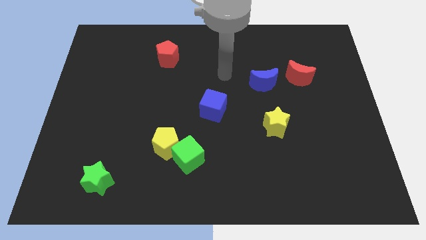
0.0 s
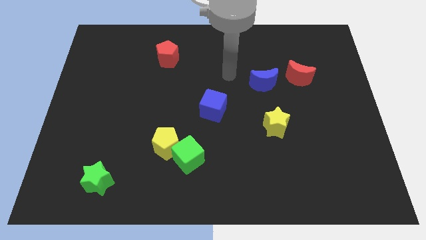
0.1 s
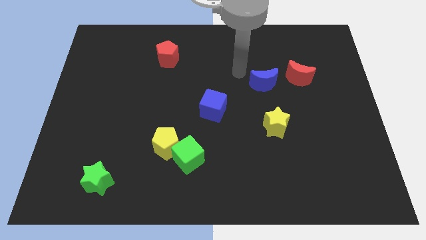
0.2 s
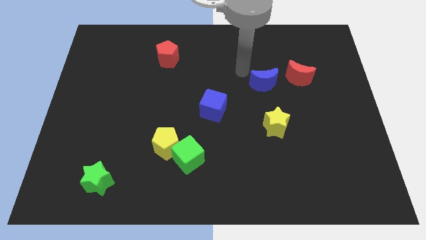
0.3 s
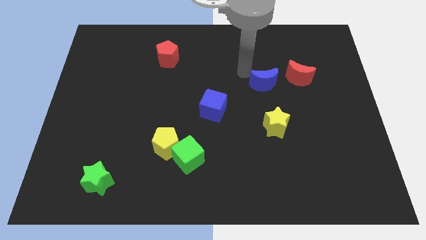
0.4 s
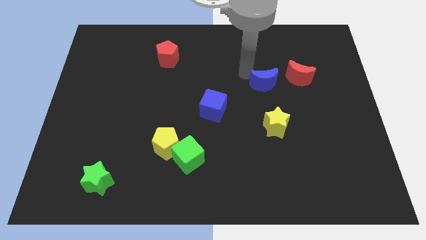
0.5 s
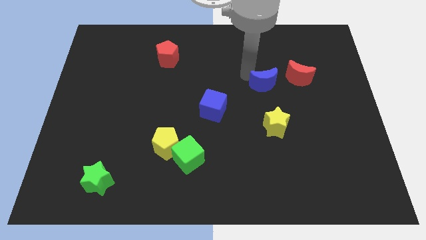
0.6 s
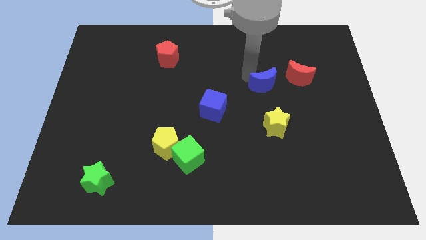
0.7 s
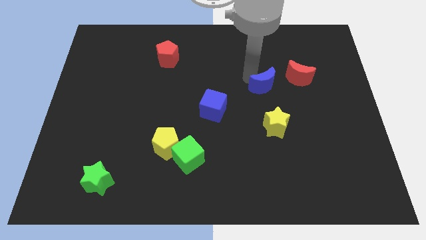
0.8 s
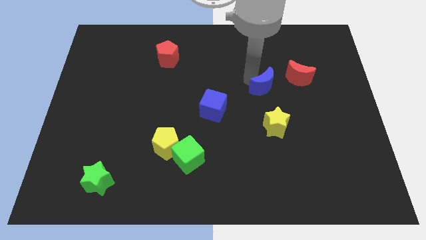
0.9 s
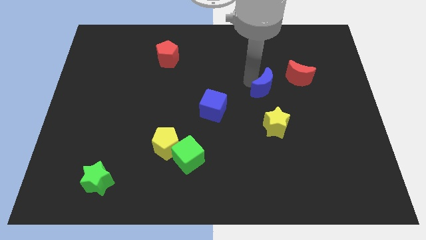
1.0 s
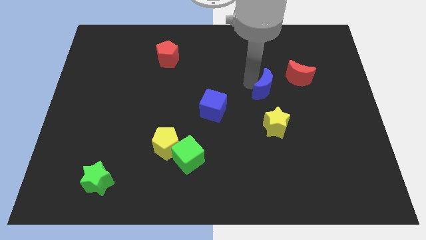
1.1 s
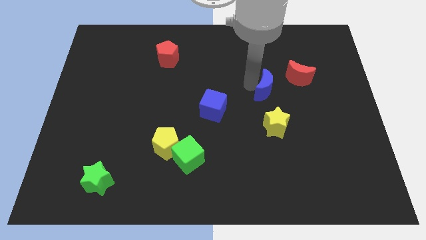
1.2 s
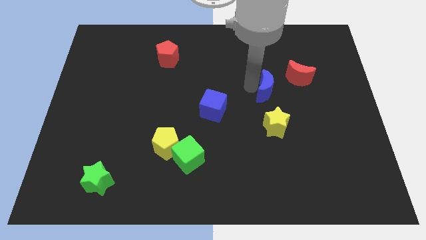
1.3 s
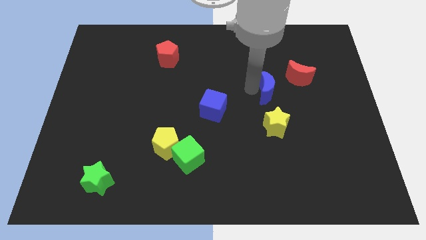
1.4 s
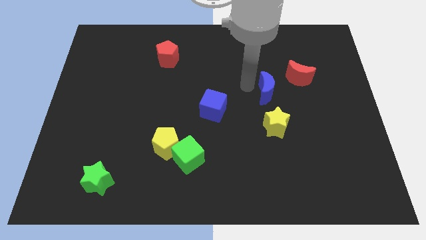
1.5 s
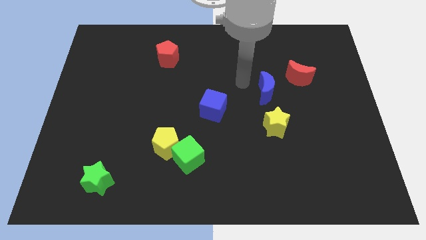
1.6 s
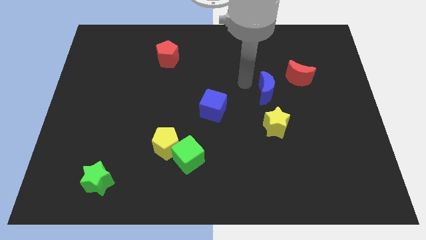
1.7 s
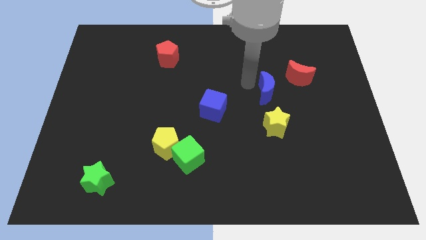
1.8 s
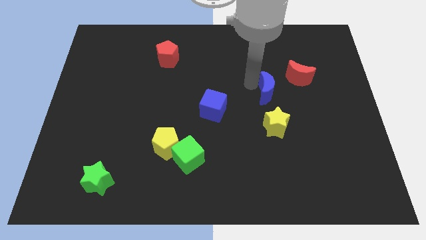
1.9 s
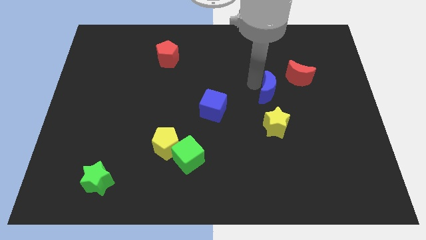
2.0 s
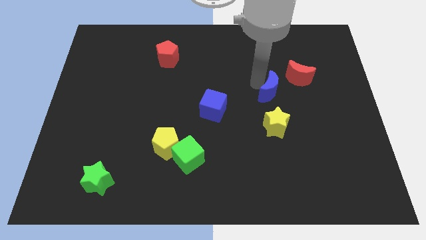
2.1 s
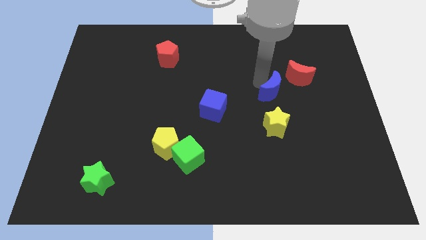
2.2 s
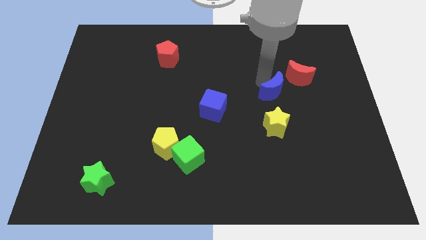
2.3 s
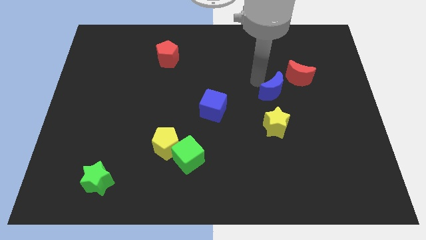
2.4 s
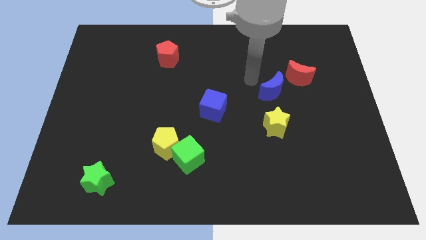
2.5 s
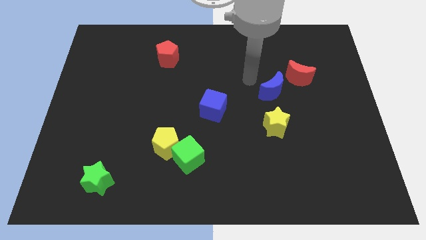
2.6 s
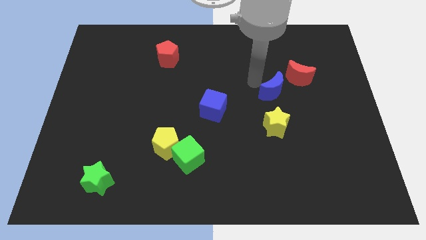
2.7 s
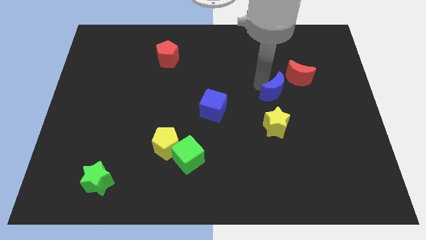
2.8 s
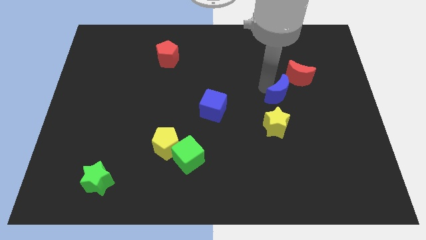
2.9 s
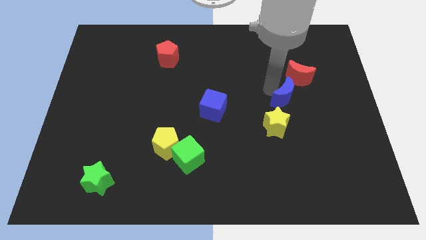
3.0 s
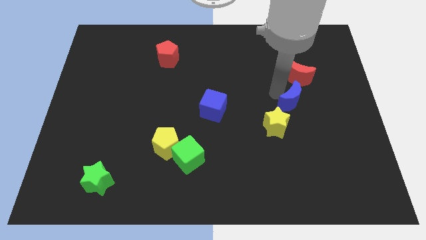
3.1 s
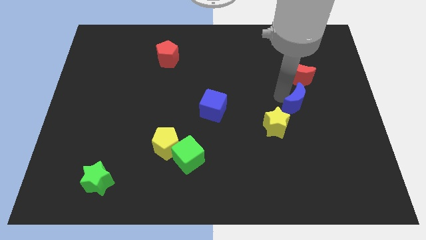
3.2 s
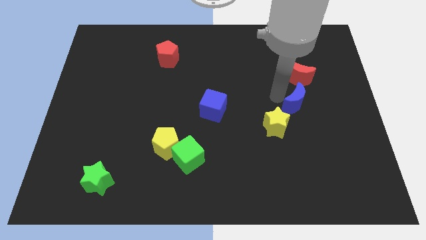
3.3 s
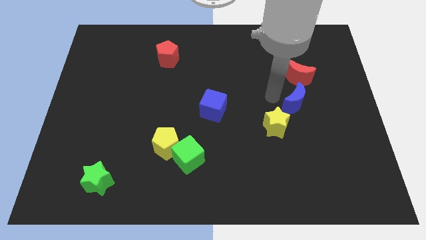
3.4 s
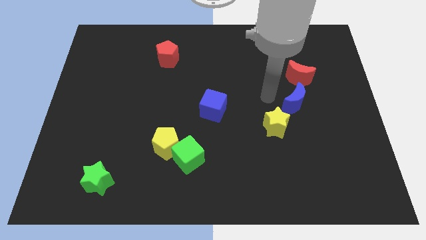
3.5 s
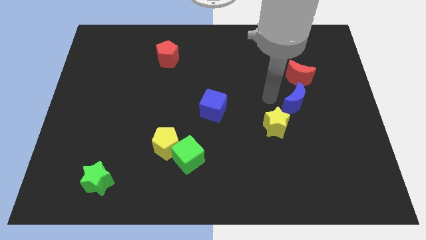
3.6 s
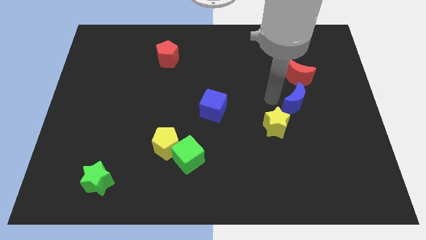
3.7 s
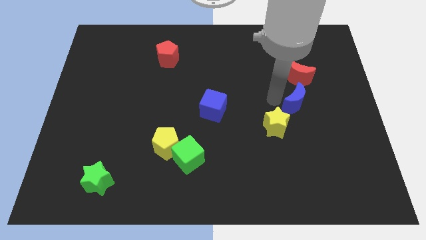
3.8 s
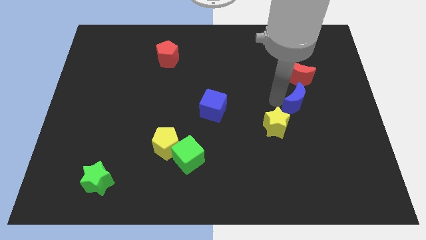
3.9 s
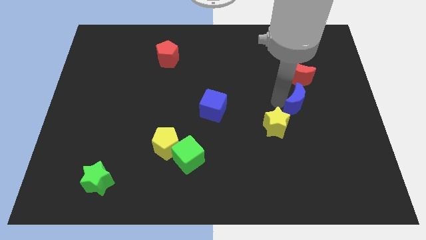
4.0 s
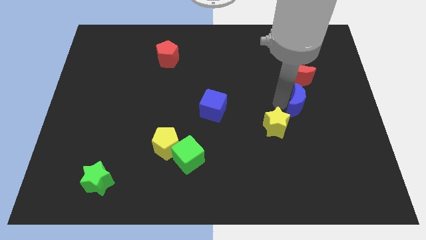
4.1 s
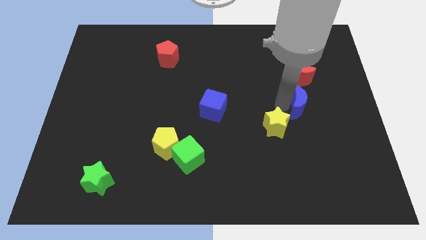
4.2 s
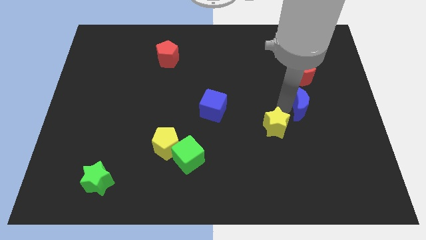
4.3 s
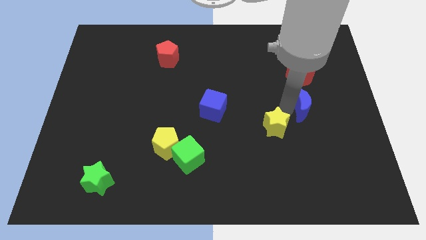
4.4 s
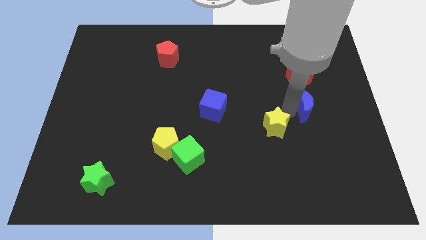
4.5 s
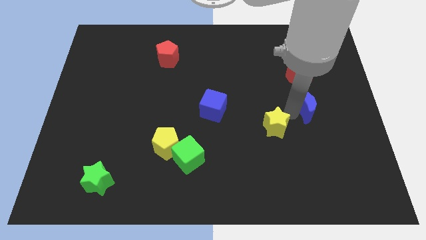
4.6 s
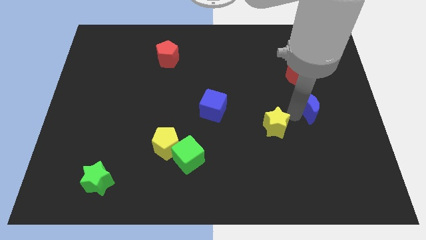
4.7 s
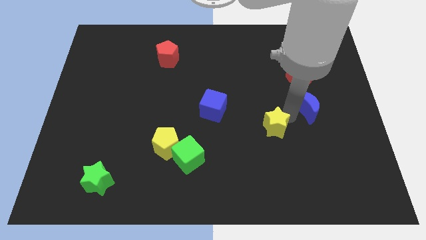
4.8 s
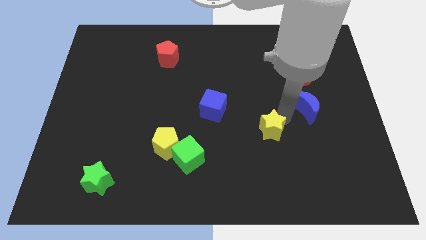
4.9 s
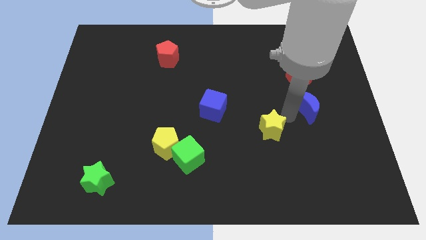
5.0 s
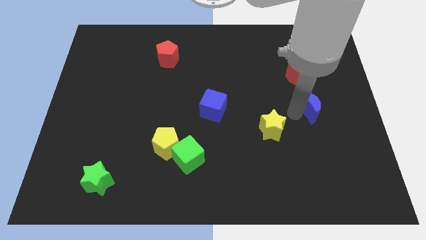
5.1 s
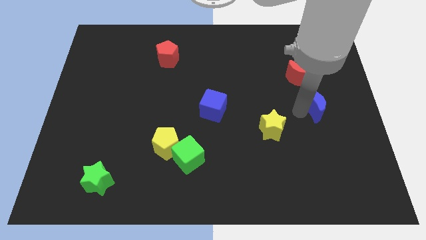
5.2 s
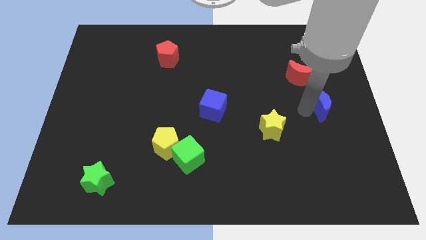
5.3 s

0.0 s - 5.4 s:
move the blue moon to the right side

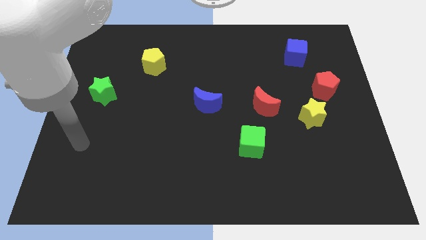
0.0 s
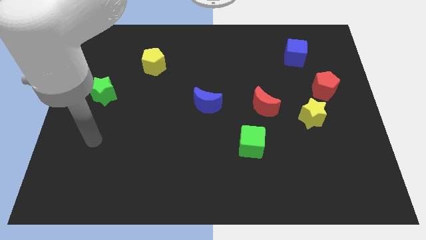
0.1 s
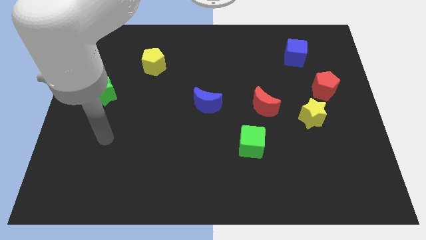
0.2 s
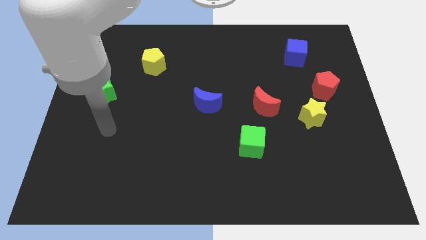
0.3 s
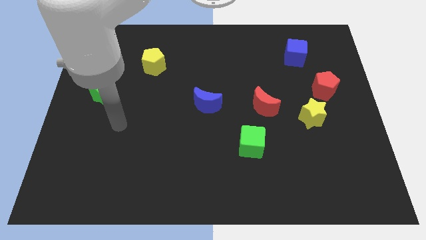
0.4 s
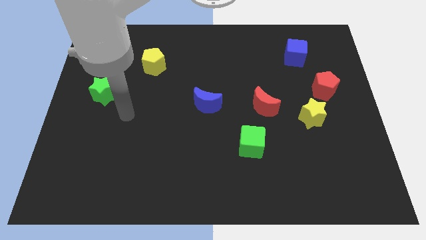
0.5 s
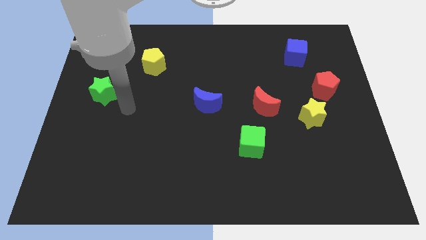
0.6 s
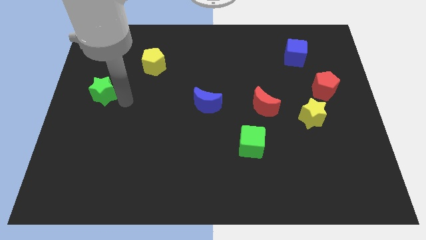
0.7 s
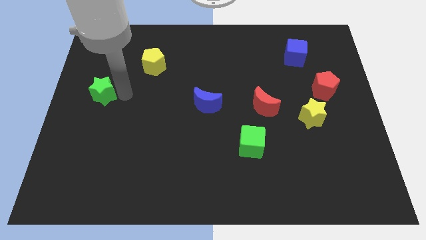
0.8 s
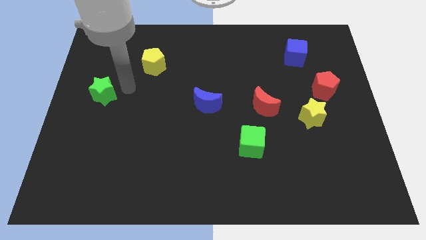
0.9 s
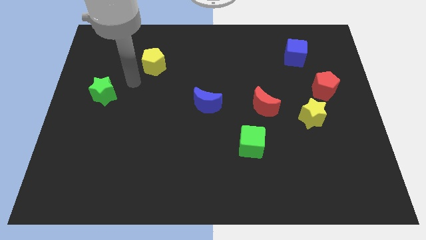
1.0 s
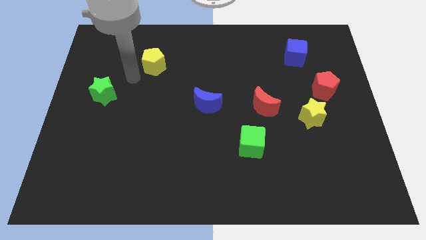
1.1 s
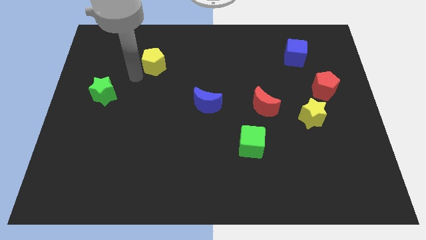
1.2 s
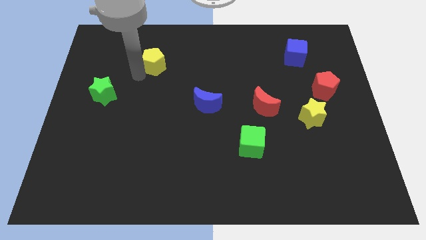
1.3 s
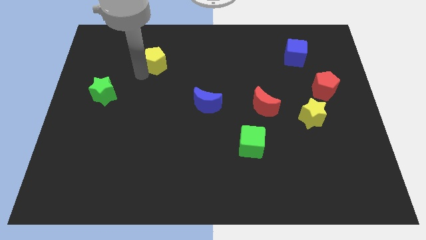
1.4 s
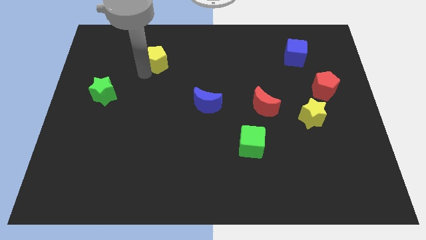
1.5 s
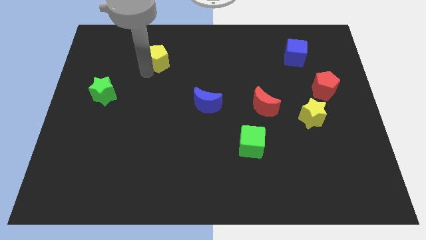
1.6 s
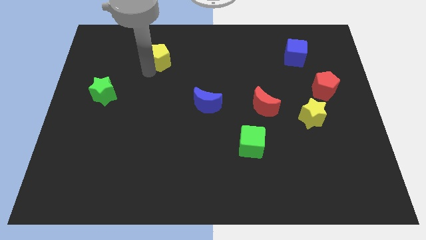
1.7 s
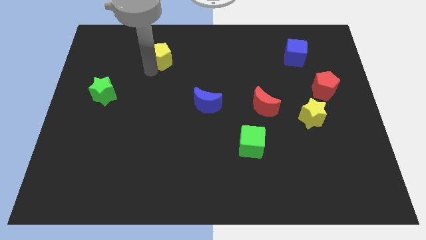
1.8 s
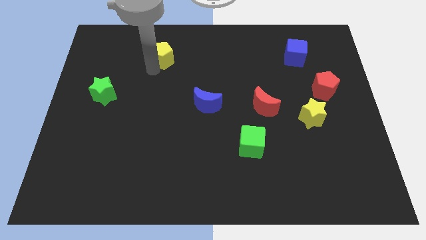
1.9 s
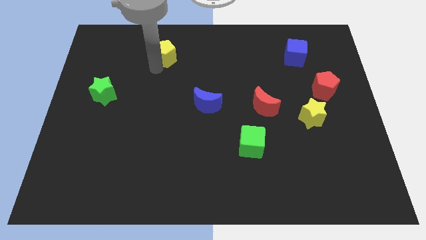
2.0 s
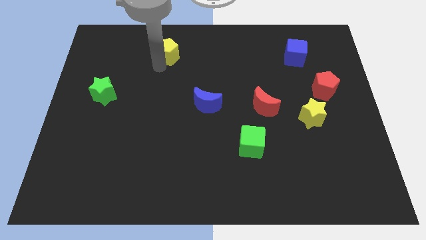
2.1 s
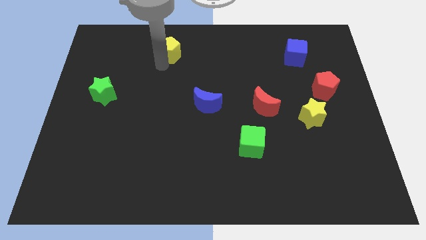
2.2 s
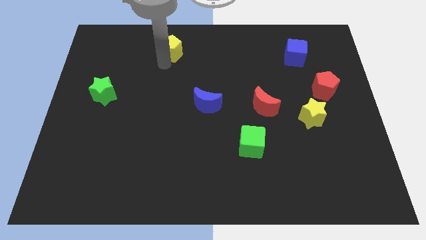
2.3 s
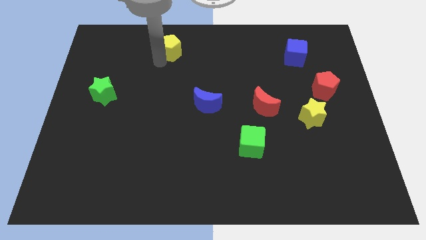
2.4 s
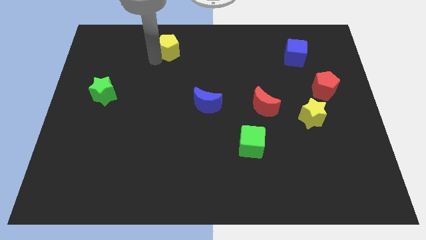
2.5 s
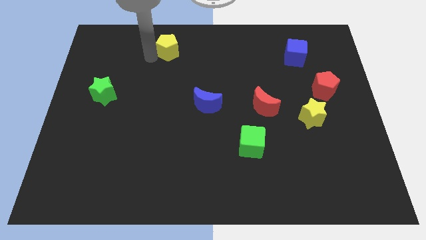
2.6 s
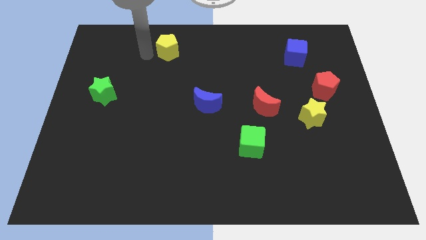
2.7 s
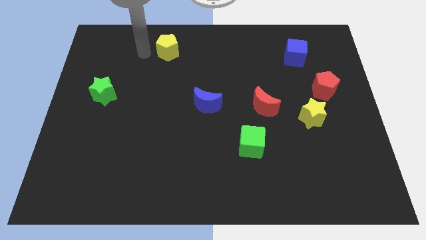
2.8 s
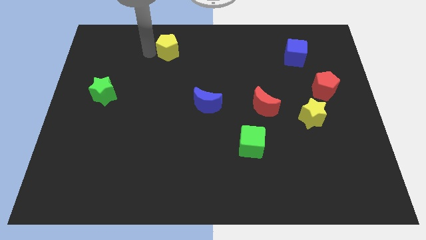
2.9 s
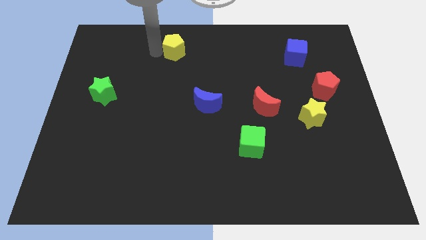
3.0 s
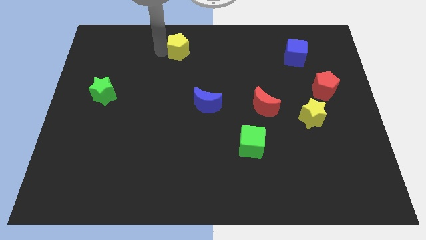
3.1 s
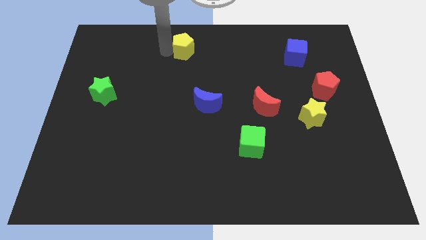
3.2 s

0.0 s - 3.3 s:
put the yellow pentagon to the top
